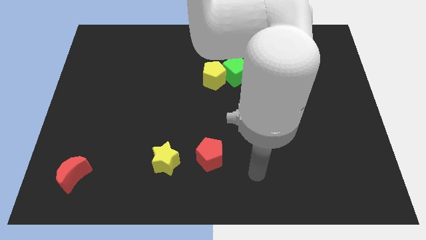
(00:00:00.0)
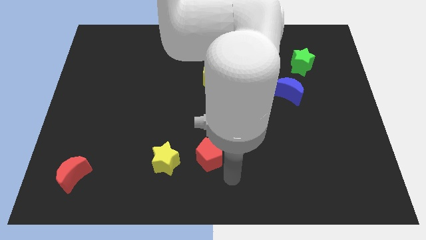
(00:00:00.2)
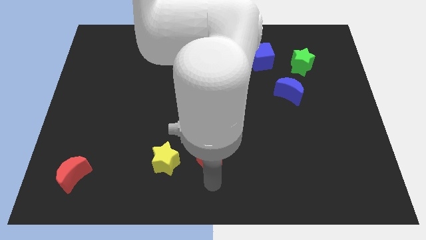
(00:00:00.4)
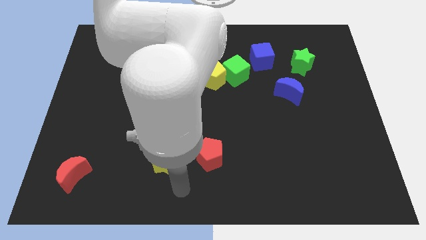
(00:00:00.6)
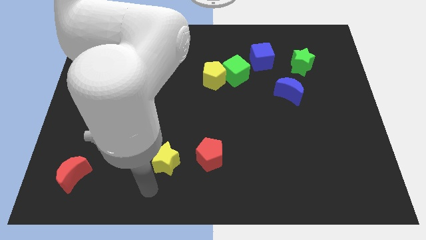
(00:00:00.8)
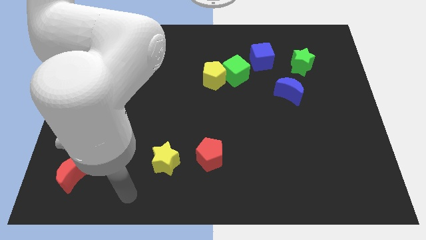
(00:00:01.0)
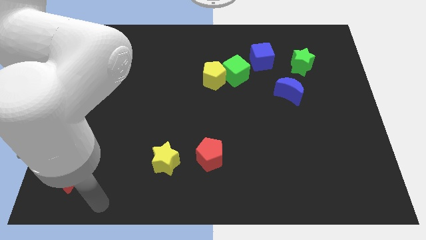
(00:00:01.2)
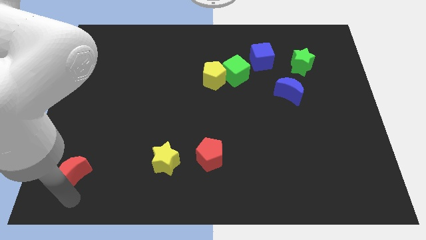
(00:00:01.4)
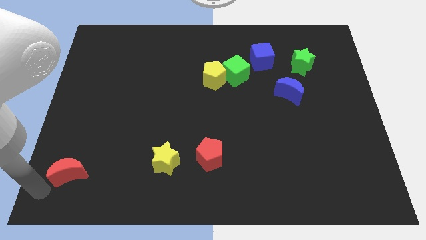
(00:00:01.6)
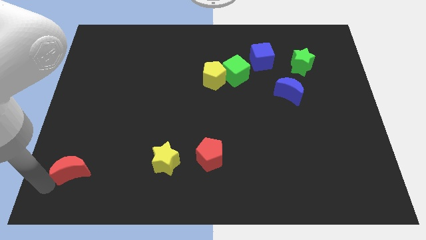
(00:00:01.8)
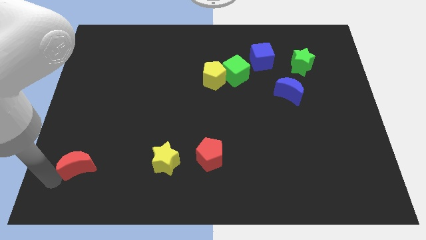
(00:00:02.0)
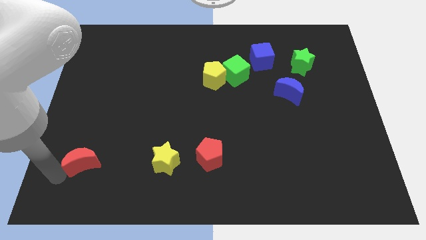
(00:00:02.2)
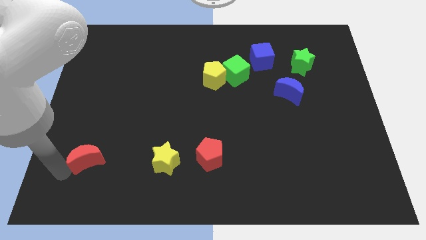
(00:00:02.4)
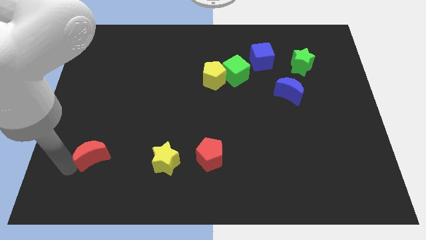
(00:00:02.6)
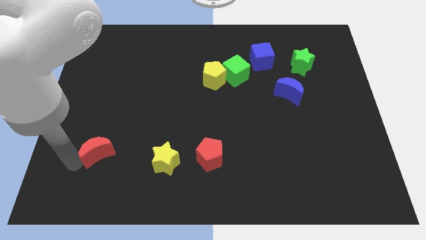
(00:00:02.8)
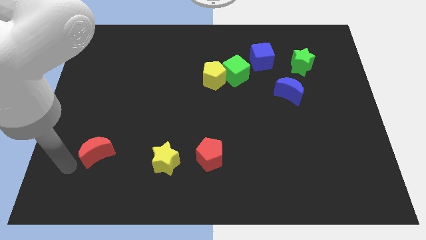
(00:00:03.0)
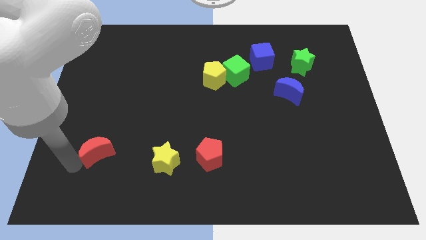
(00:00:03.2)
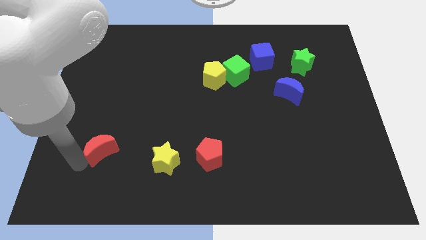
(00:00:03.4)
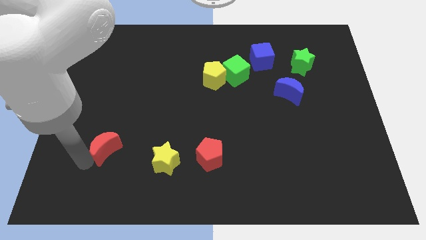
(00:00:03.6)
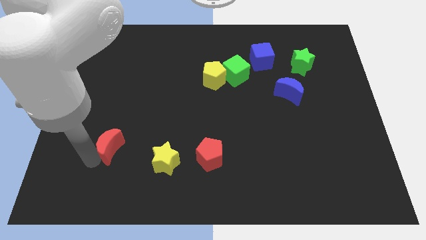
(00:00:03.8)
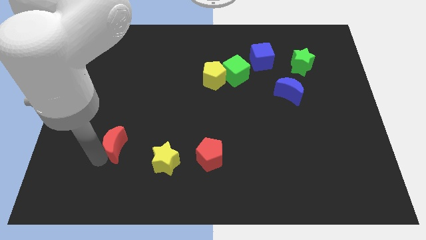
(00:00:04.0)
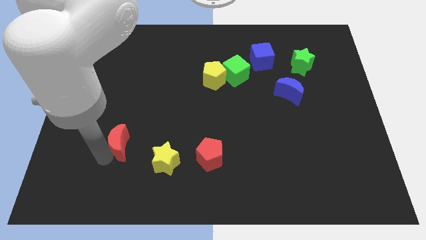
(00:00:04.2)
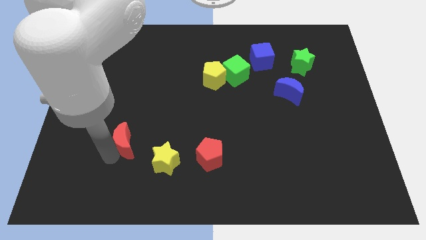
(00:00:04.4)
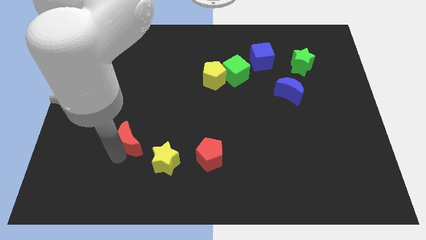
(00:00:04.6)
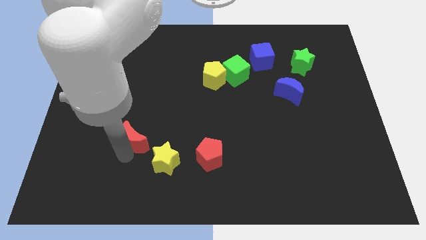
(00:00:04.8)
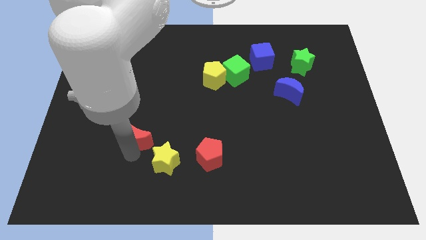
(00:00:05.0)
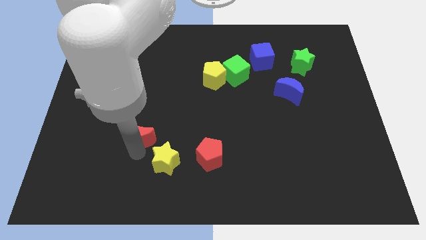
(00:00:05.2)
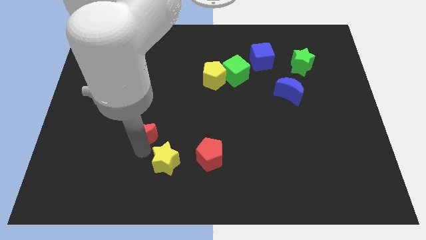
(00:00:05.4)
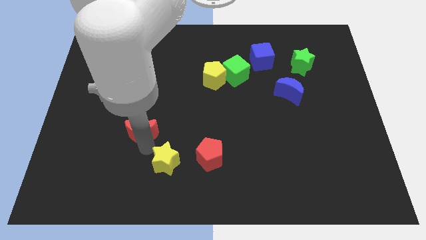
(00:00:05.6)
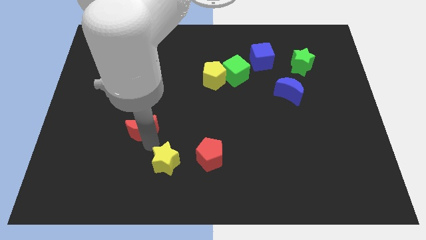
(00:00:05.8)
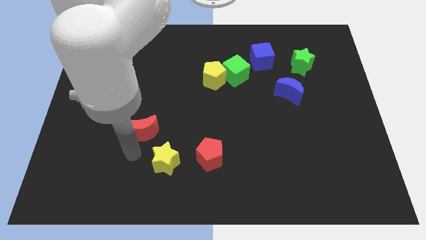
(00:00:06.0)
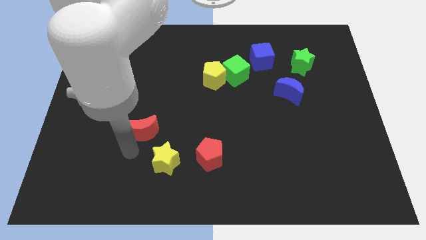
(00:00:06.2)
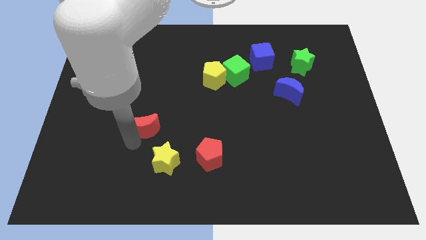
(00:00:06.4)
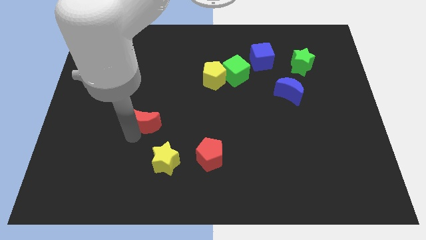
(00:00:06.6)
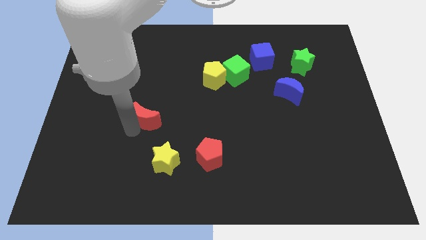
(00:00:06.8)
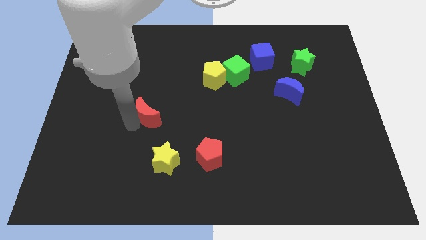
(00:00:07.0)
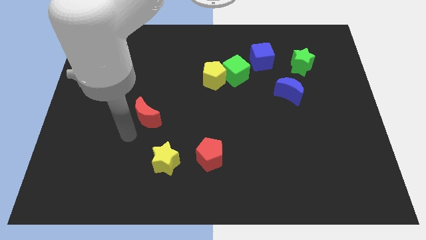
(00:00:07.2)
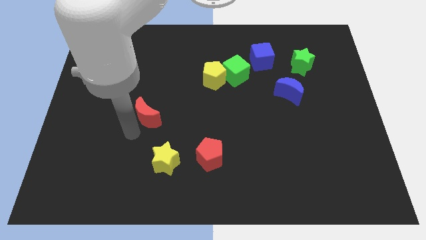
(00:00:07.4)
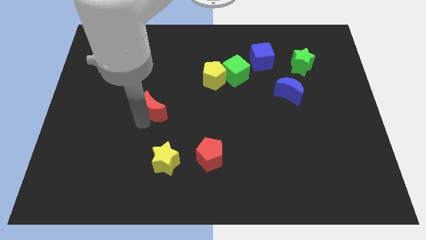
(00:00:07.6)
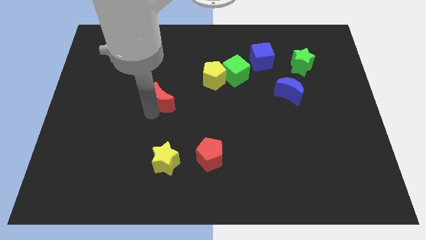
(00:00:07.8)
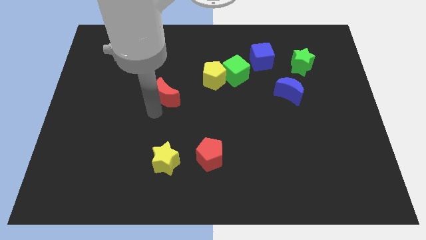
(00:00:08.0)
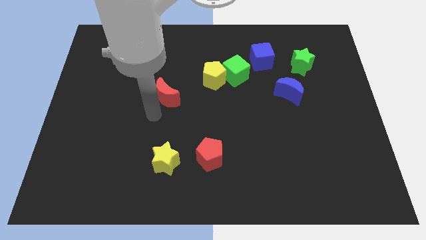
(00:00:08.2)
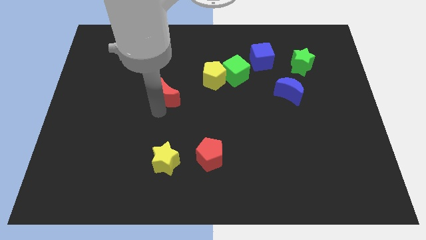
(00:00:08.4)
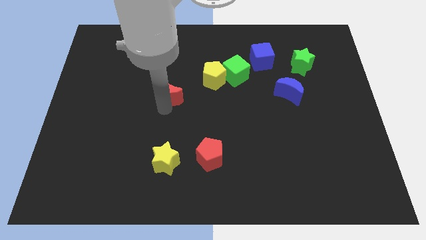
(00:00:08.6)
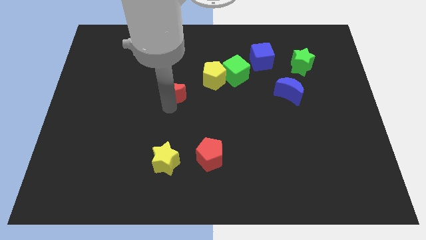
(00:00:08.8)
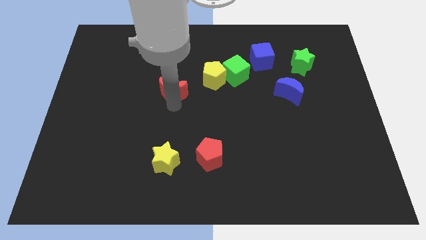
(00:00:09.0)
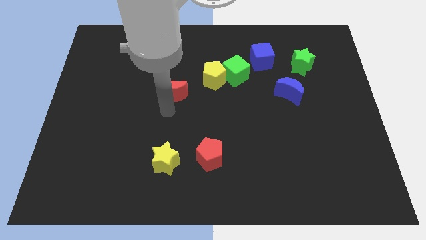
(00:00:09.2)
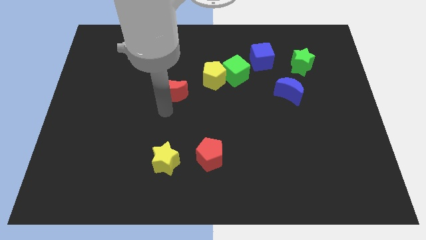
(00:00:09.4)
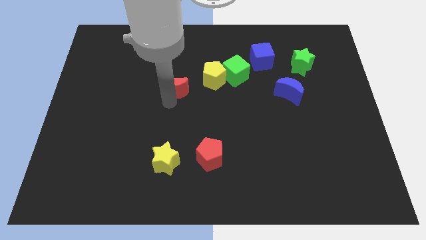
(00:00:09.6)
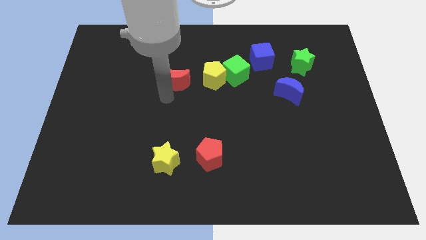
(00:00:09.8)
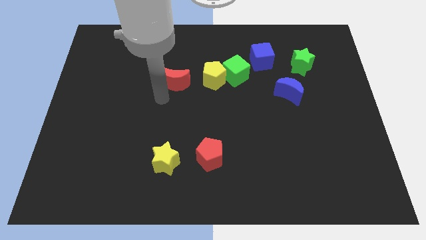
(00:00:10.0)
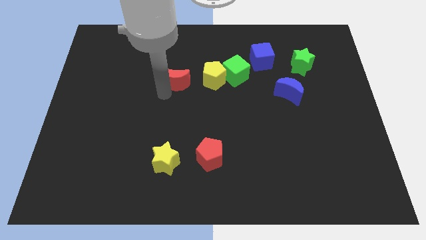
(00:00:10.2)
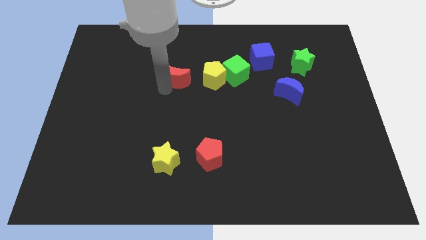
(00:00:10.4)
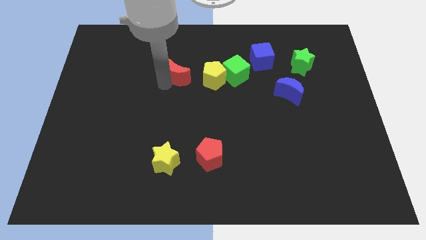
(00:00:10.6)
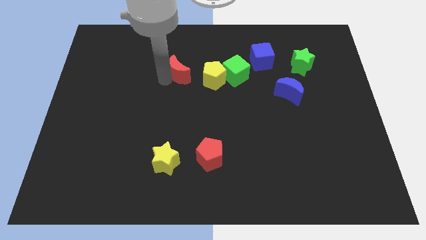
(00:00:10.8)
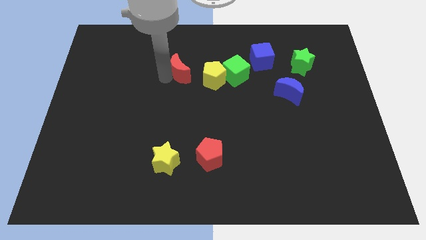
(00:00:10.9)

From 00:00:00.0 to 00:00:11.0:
move the red moon to the top left side of the yellow pentagon
